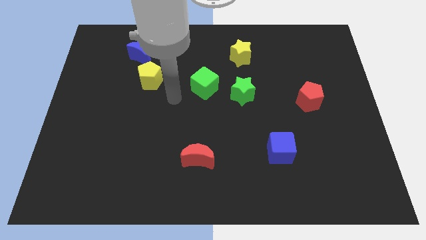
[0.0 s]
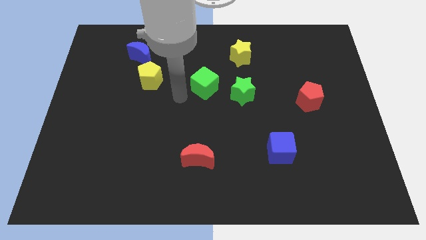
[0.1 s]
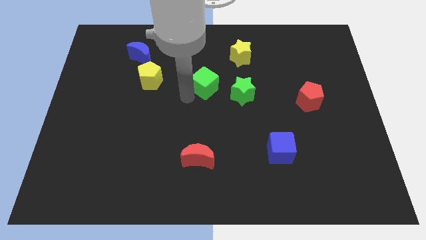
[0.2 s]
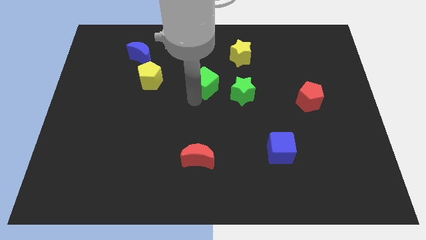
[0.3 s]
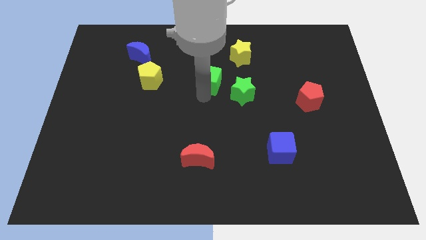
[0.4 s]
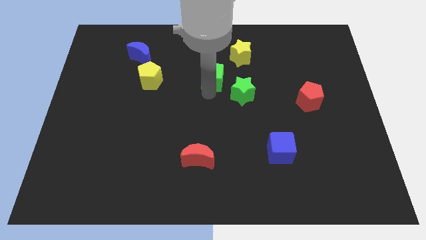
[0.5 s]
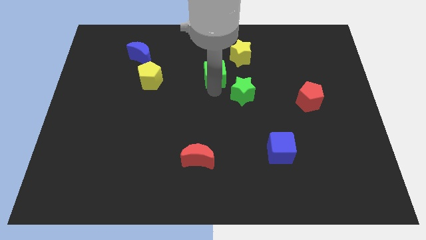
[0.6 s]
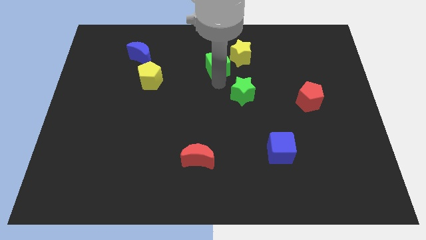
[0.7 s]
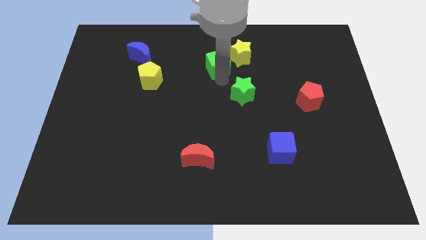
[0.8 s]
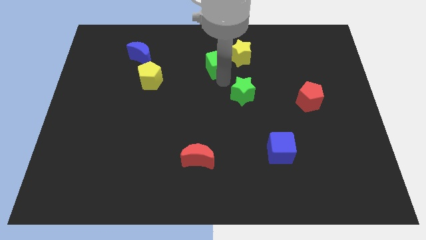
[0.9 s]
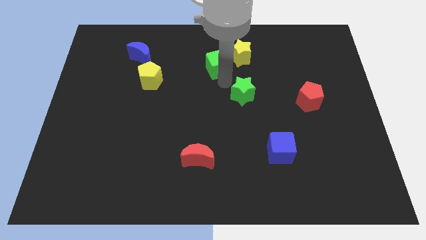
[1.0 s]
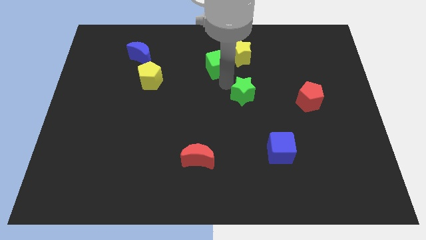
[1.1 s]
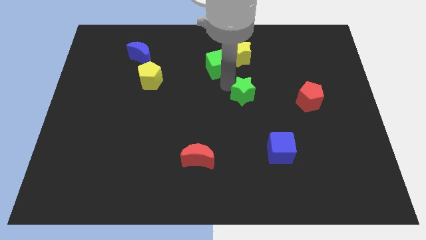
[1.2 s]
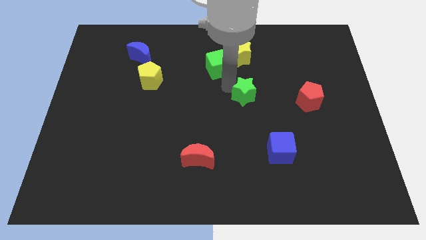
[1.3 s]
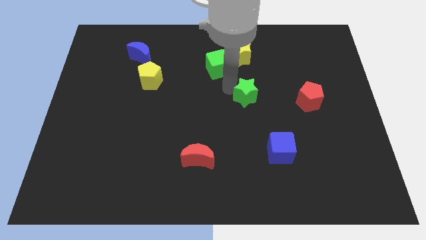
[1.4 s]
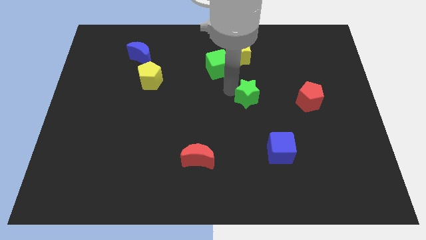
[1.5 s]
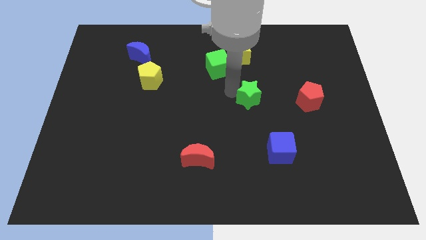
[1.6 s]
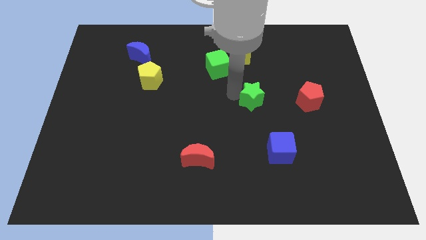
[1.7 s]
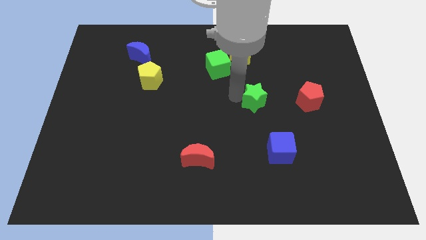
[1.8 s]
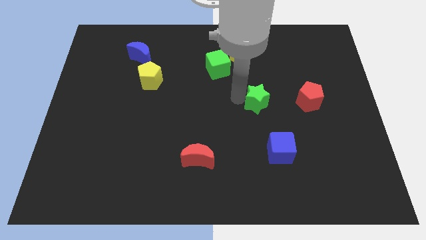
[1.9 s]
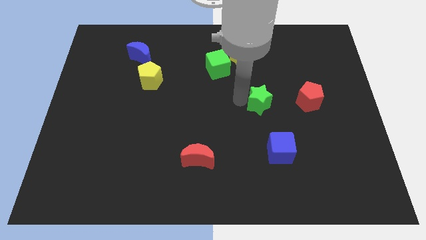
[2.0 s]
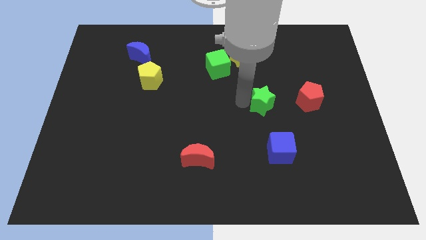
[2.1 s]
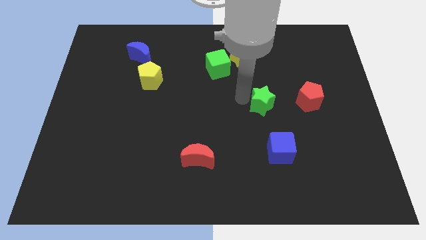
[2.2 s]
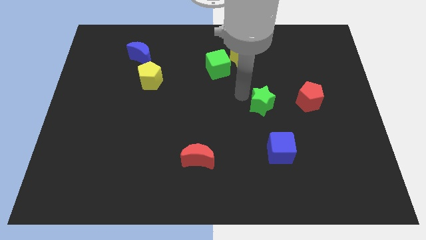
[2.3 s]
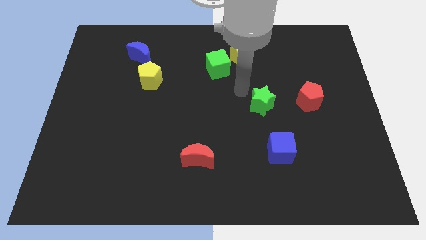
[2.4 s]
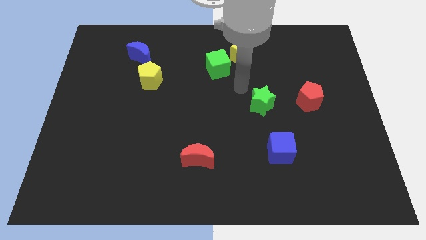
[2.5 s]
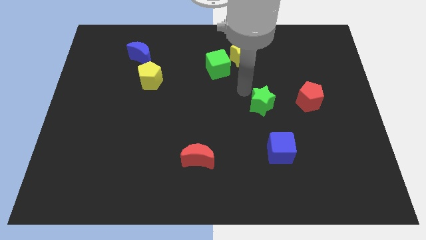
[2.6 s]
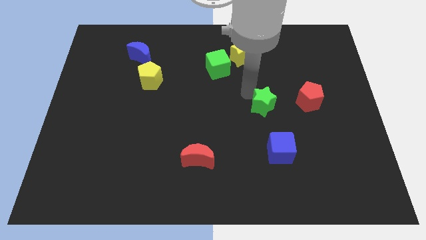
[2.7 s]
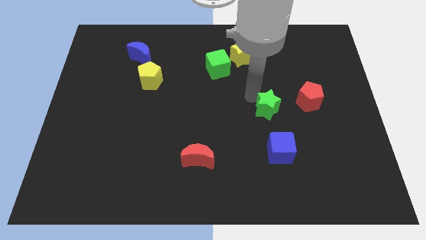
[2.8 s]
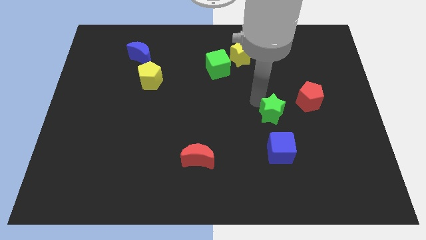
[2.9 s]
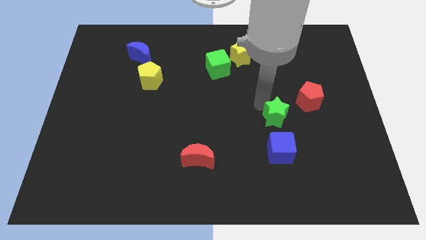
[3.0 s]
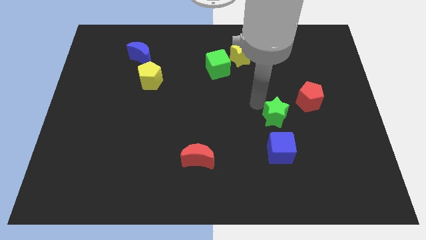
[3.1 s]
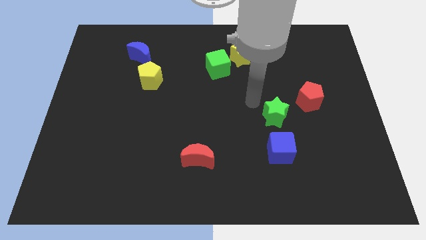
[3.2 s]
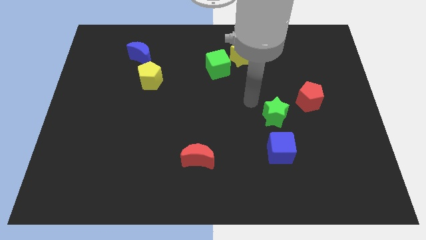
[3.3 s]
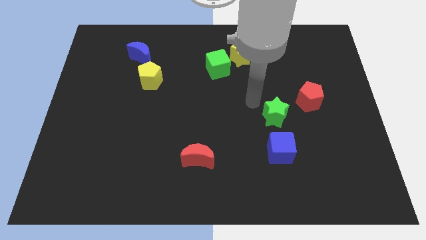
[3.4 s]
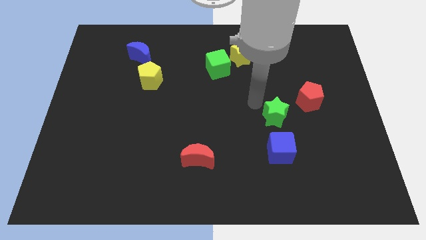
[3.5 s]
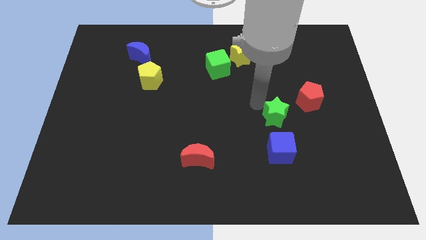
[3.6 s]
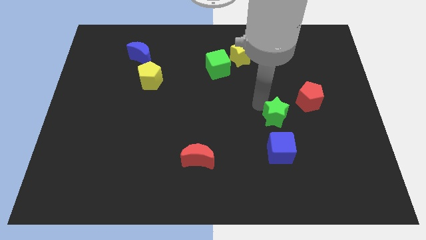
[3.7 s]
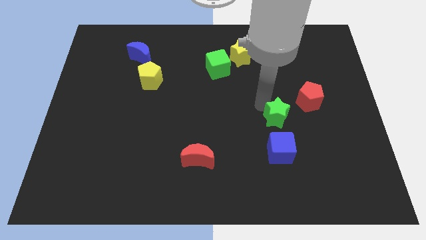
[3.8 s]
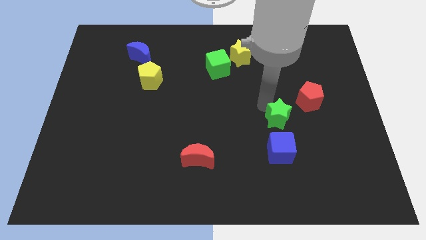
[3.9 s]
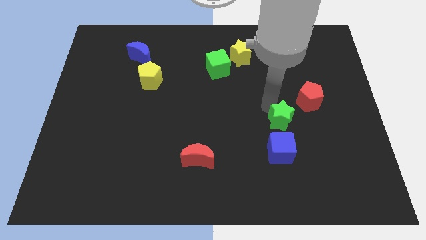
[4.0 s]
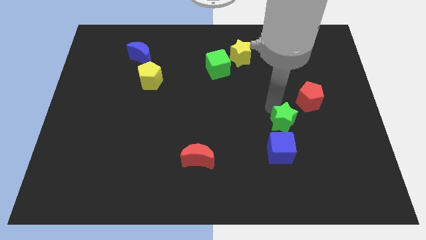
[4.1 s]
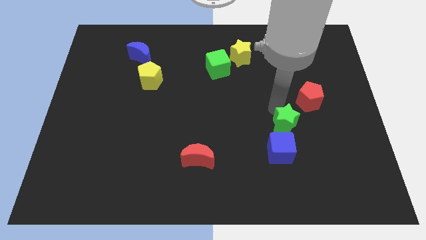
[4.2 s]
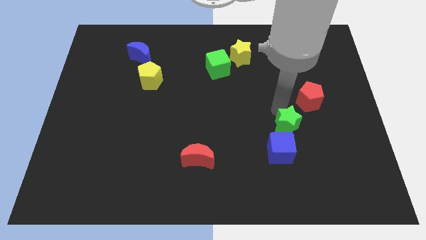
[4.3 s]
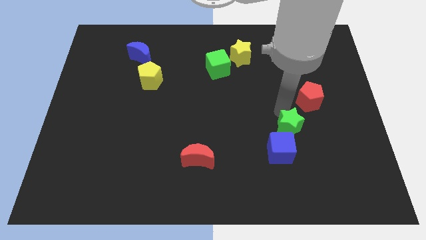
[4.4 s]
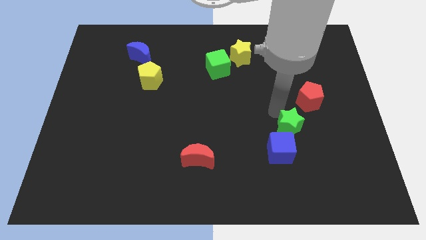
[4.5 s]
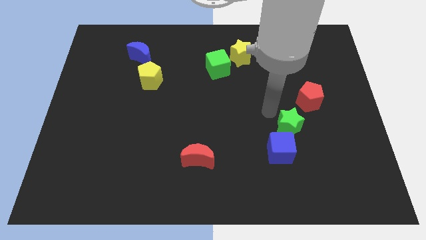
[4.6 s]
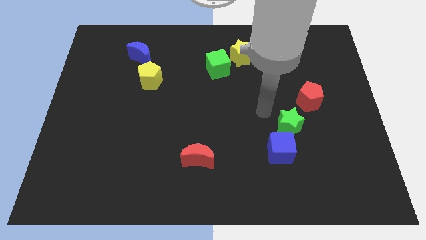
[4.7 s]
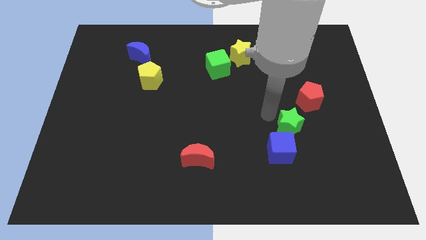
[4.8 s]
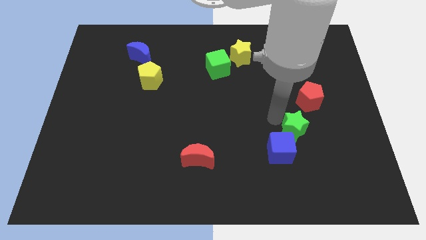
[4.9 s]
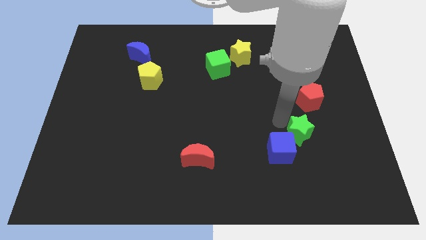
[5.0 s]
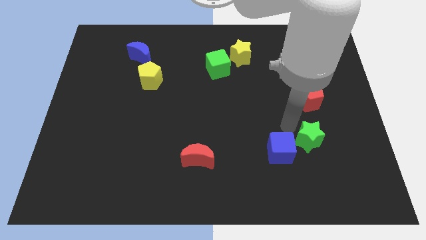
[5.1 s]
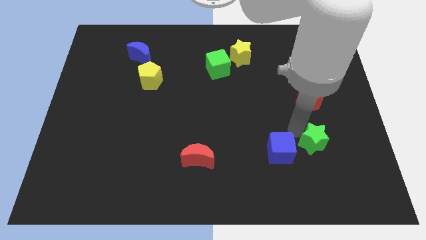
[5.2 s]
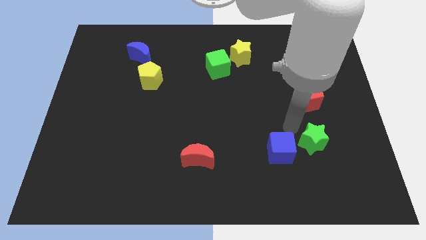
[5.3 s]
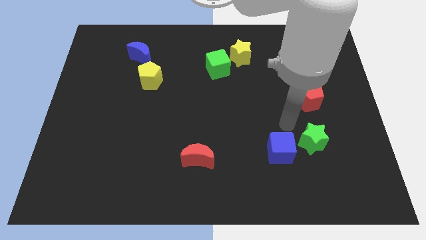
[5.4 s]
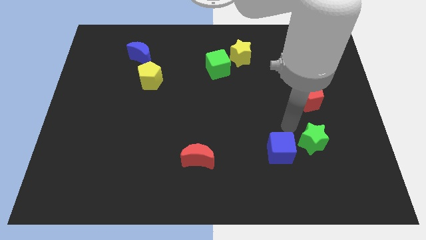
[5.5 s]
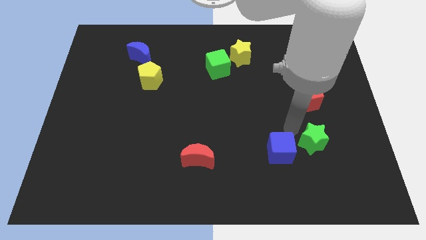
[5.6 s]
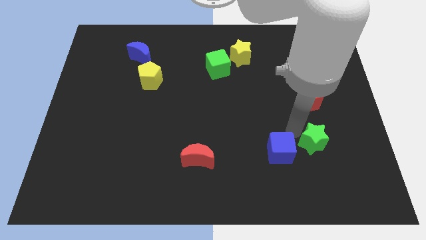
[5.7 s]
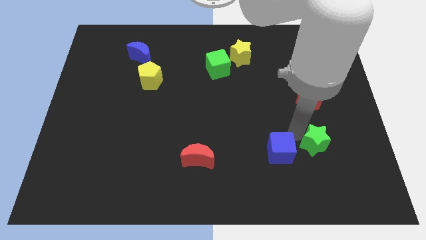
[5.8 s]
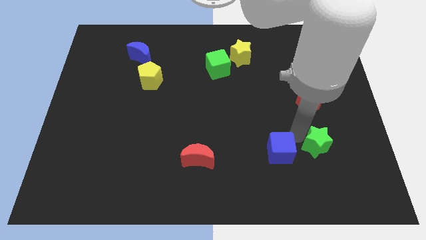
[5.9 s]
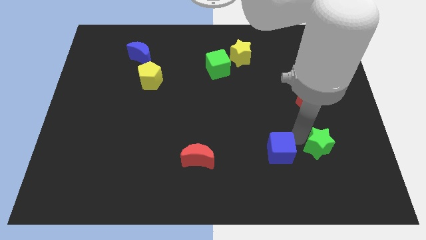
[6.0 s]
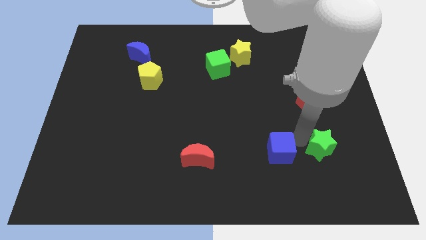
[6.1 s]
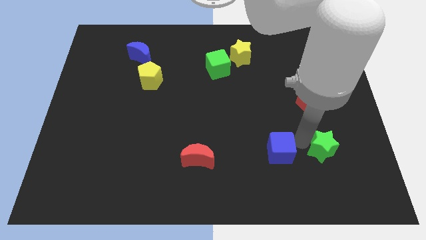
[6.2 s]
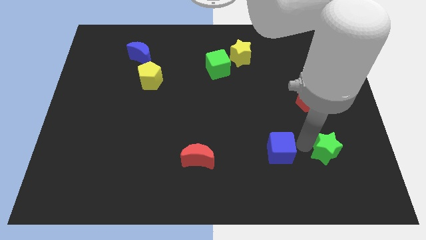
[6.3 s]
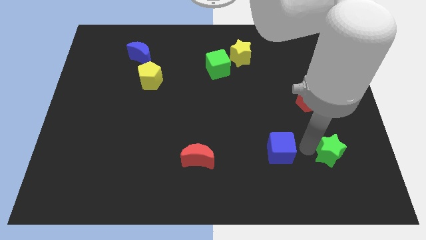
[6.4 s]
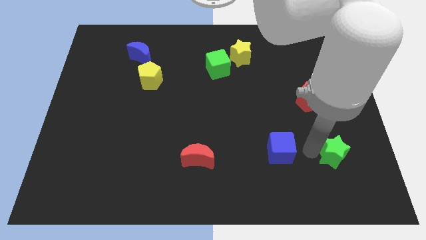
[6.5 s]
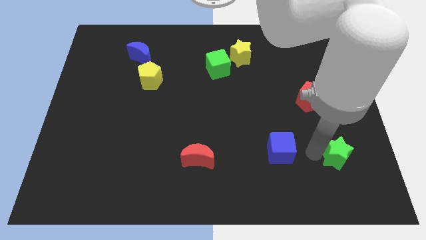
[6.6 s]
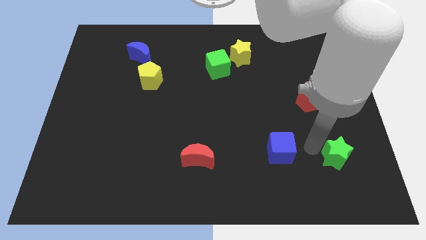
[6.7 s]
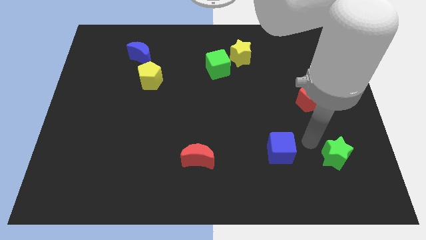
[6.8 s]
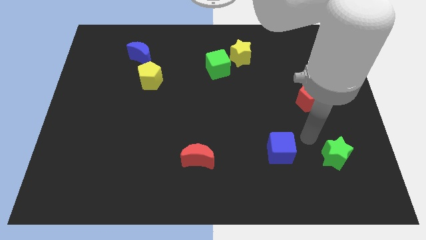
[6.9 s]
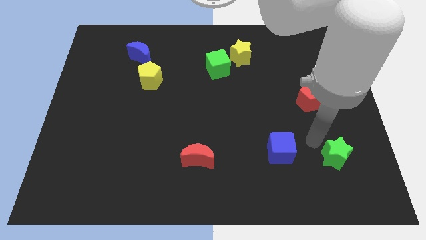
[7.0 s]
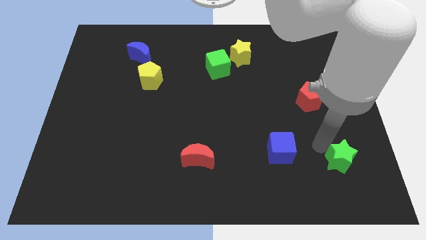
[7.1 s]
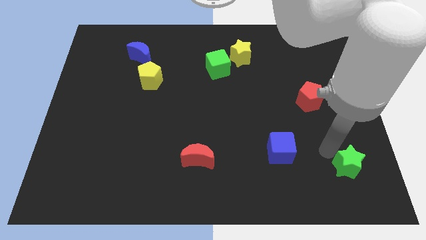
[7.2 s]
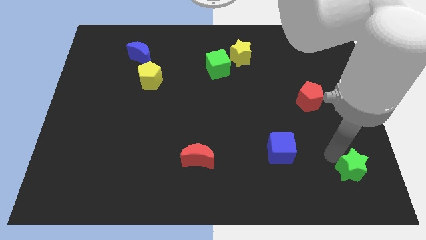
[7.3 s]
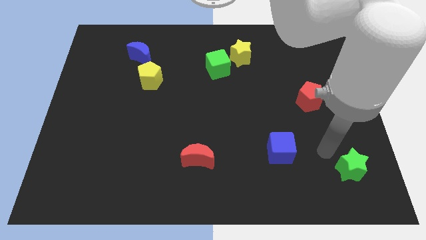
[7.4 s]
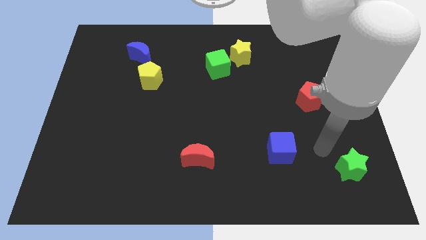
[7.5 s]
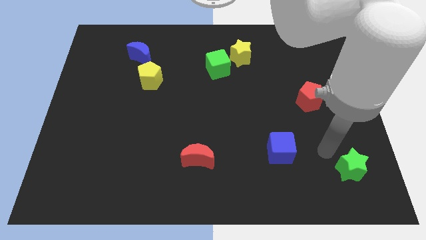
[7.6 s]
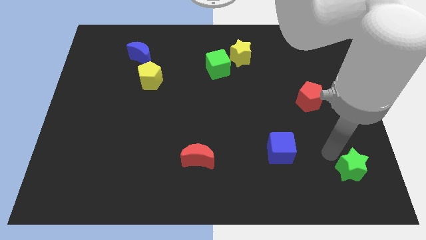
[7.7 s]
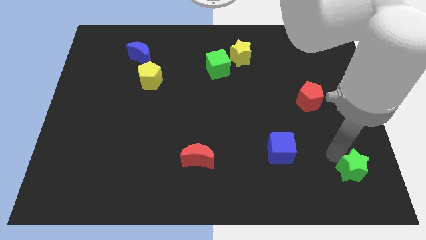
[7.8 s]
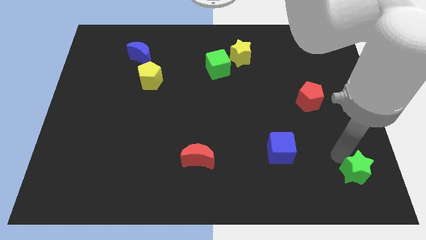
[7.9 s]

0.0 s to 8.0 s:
push the green star to the bottom right of the board
